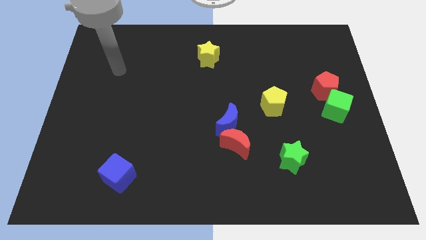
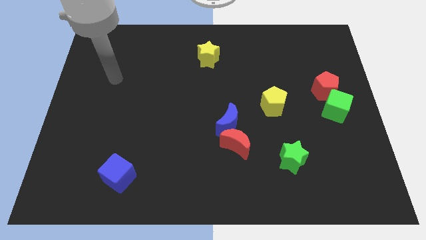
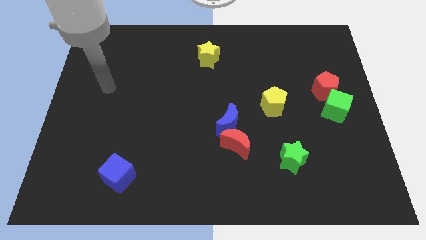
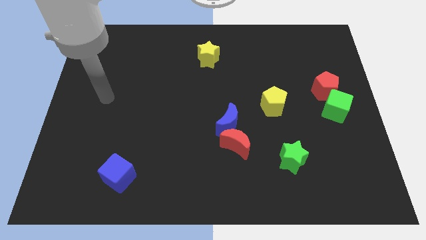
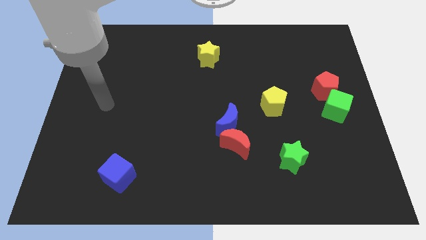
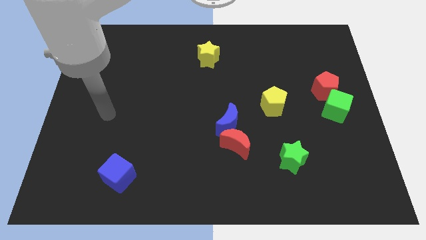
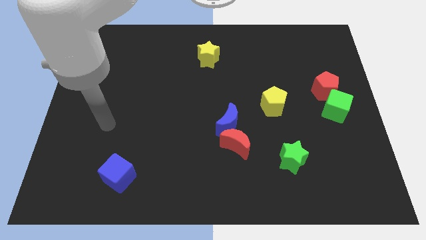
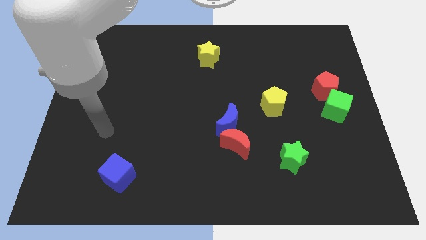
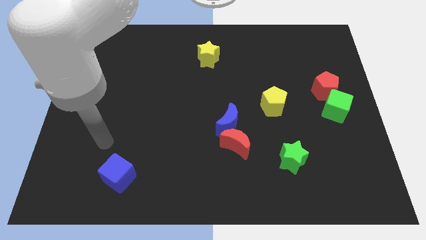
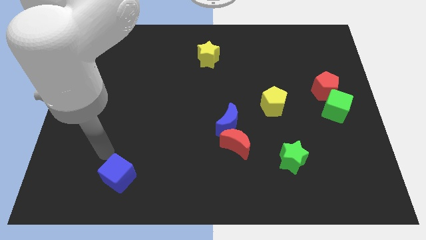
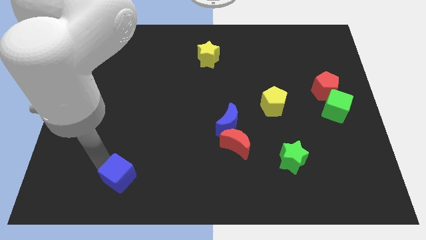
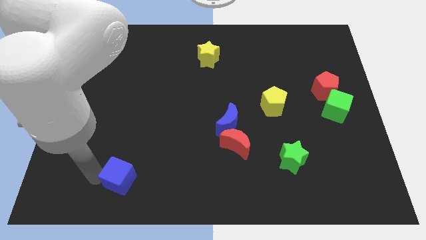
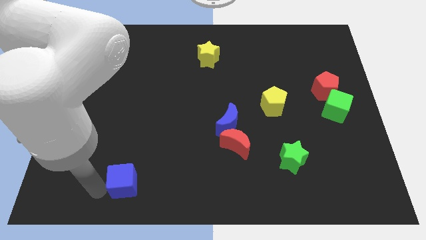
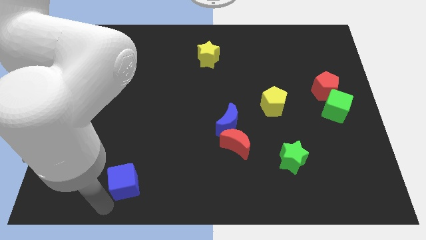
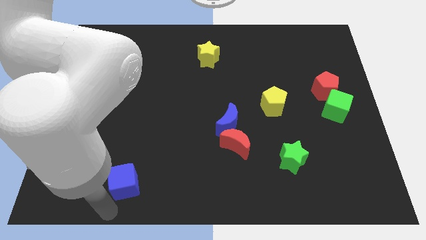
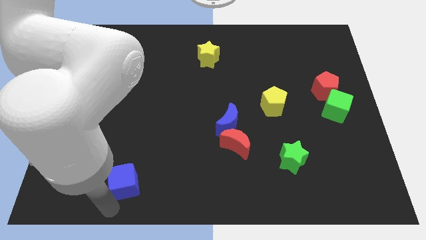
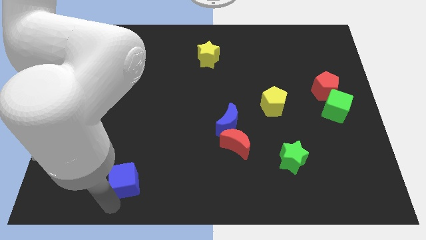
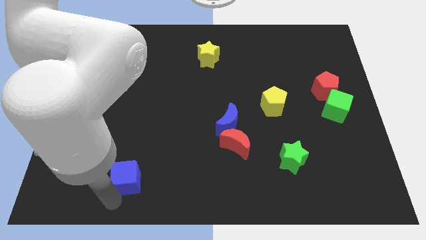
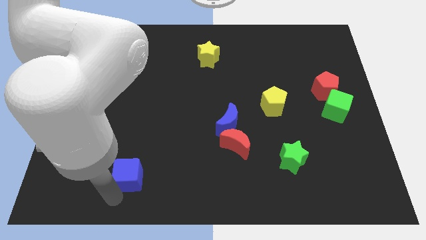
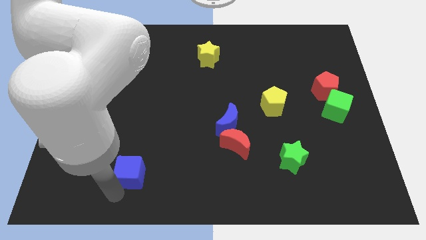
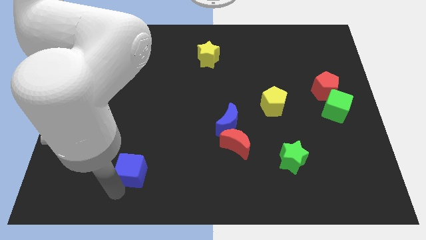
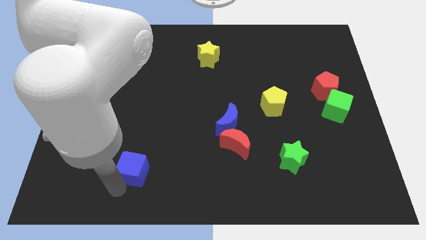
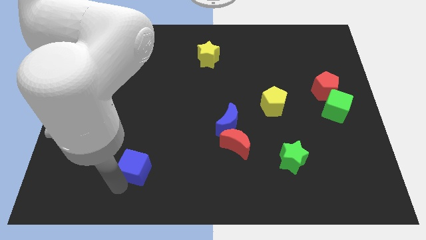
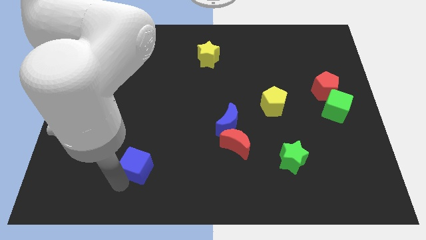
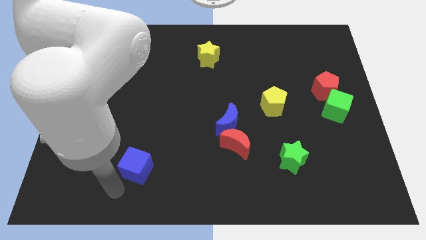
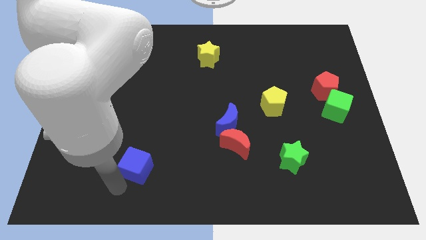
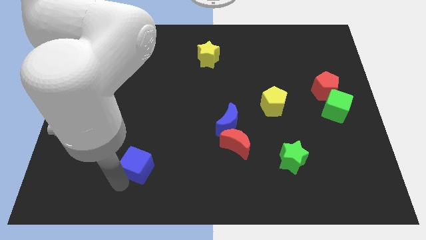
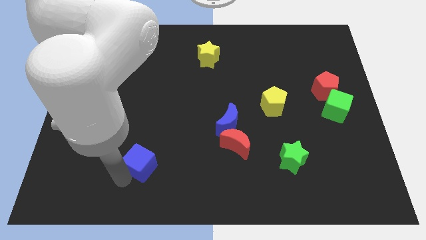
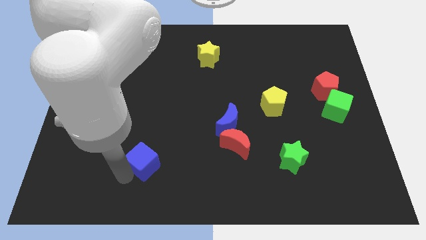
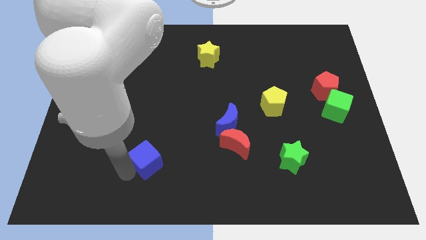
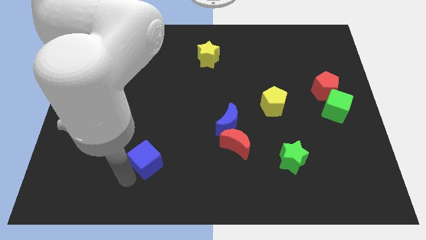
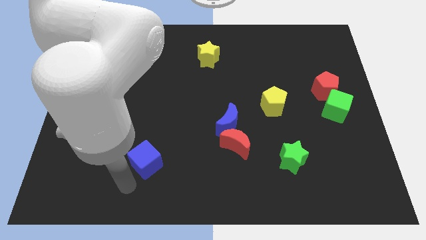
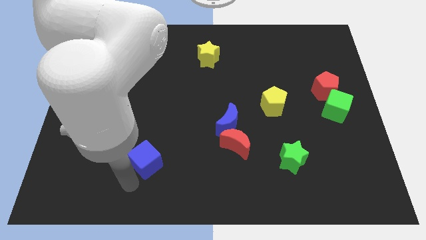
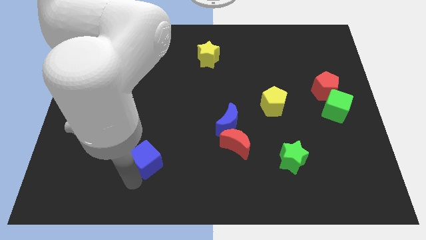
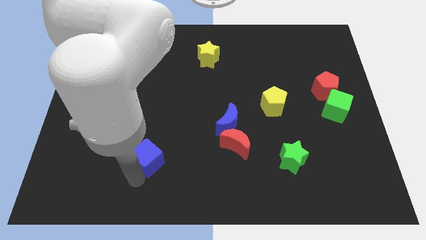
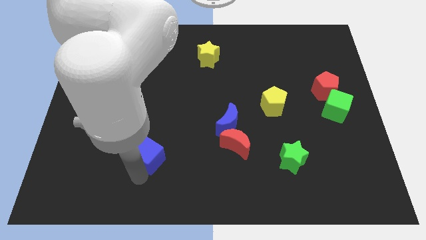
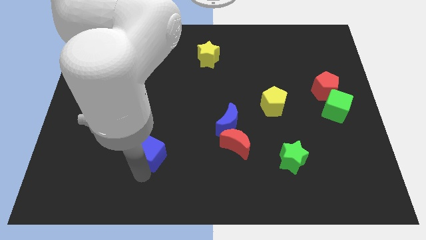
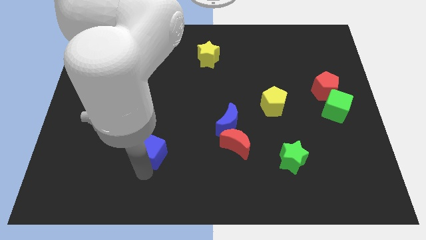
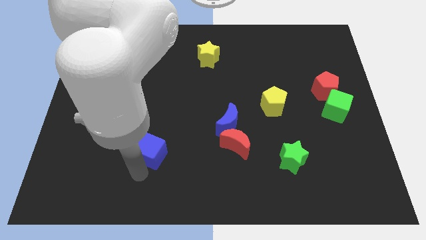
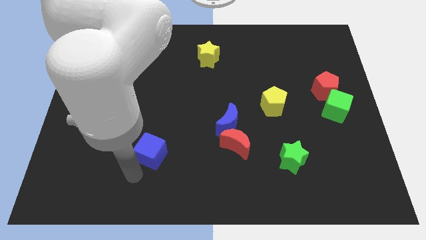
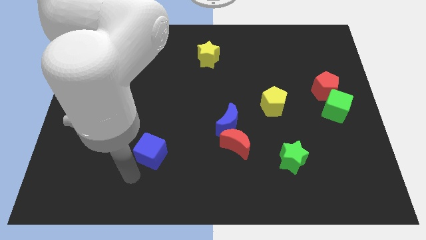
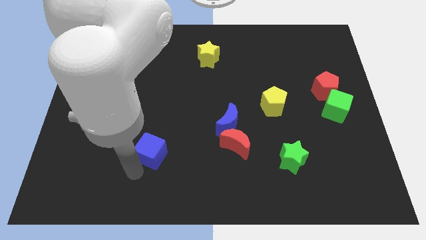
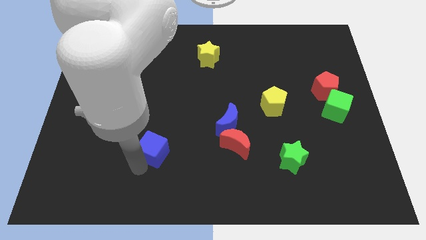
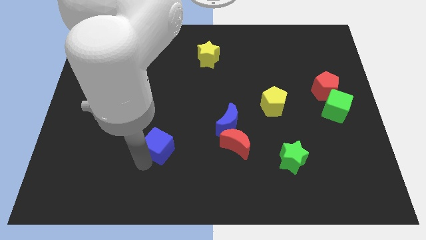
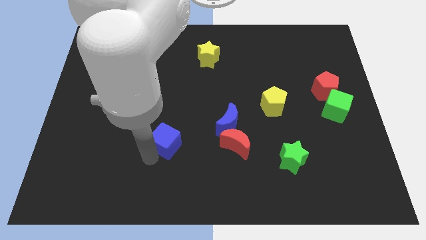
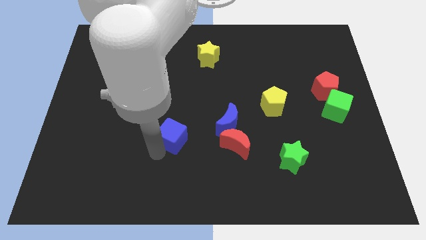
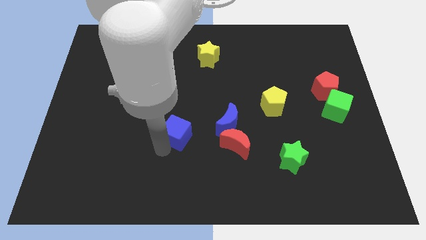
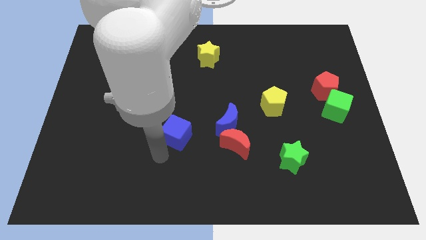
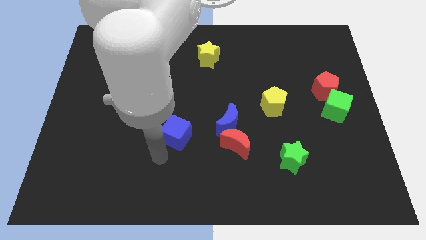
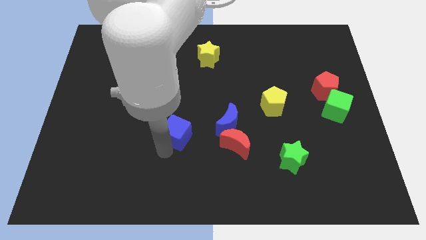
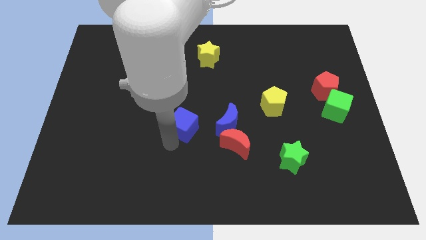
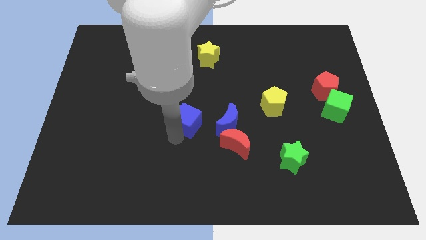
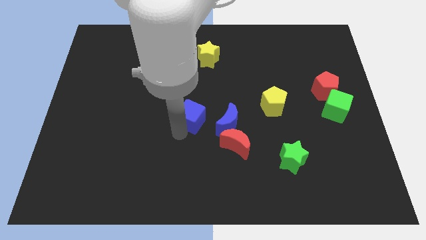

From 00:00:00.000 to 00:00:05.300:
slide the blue cube up and then right

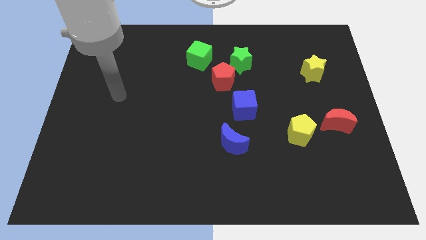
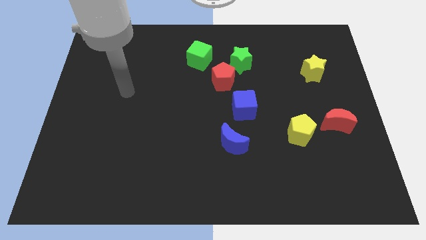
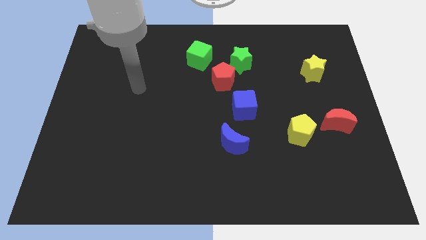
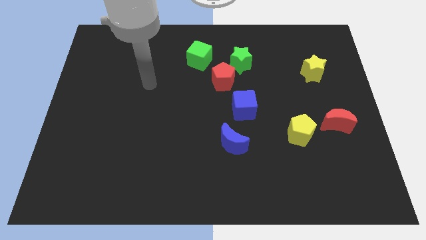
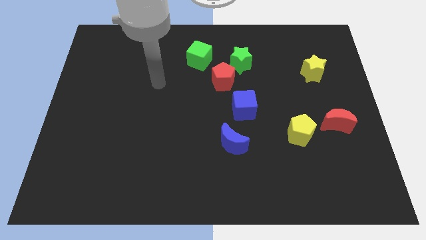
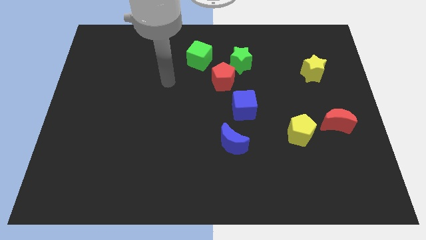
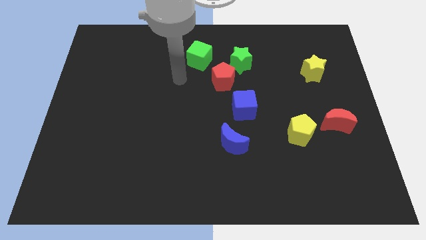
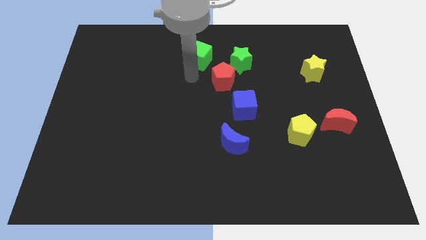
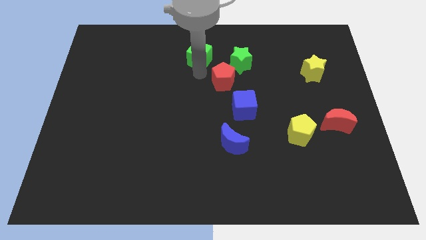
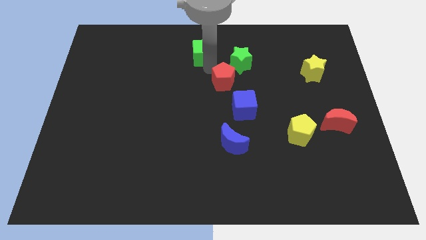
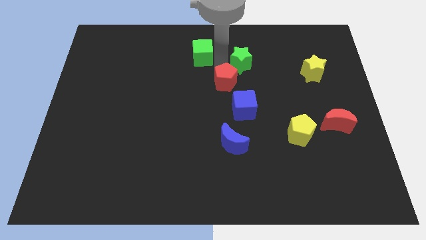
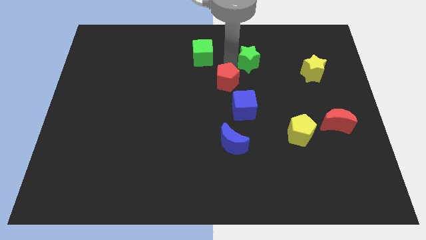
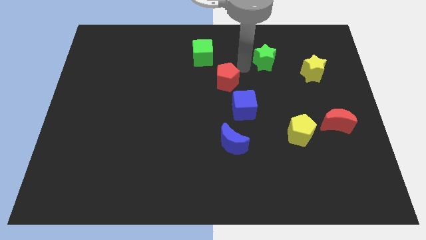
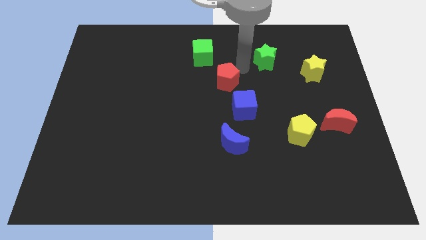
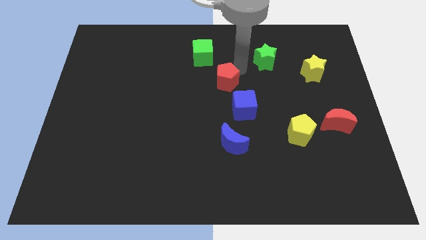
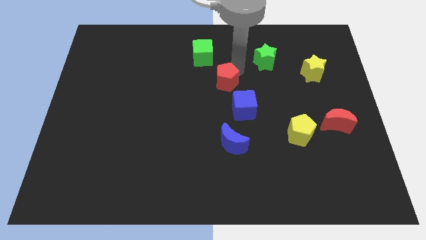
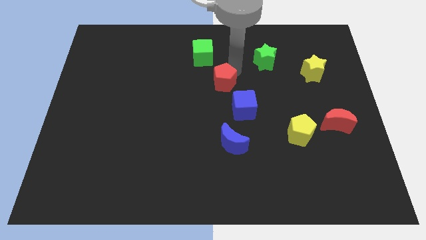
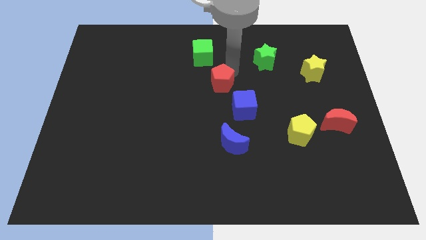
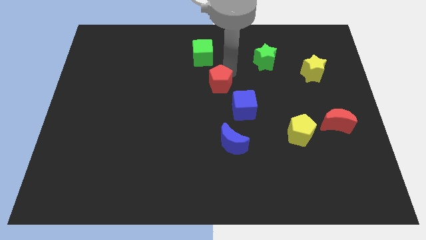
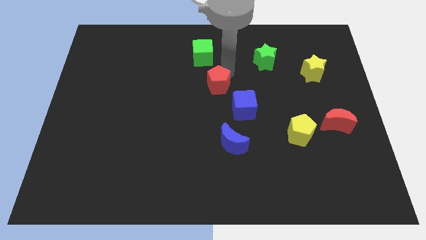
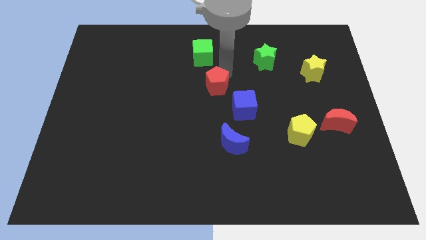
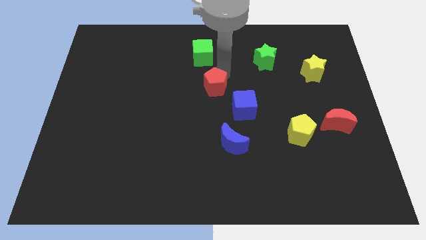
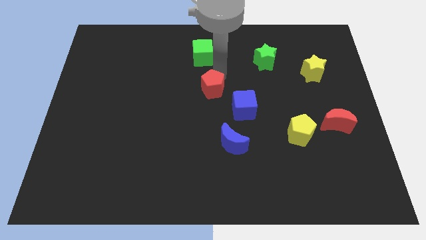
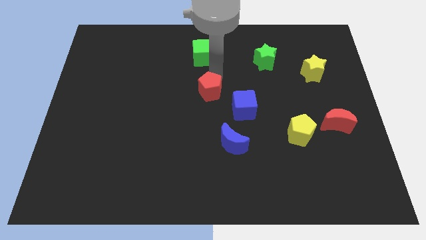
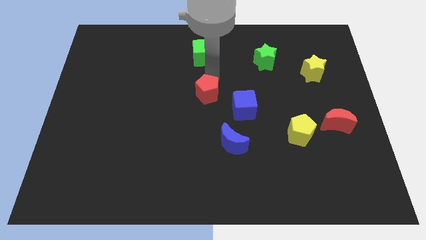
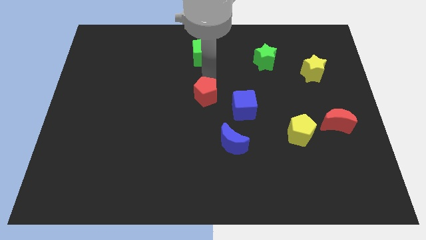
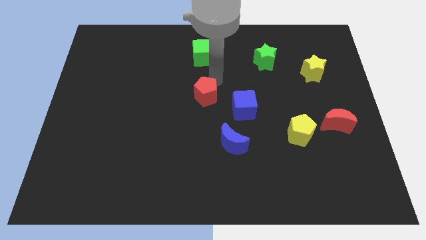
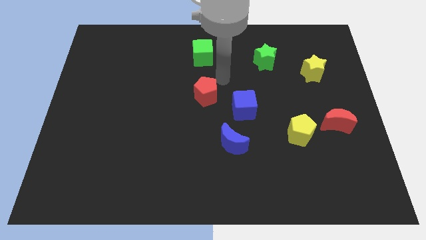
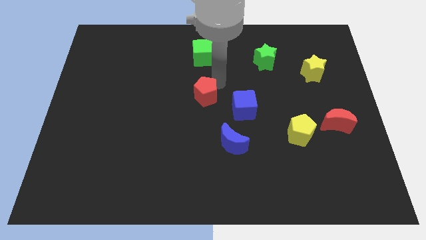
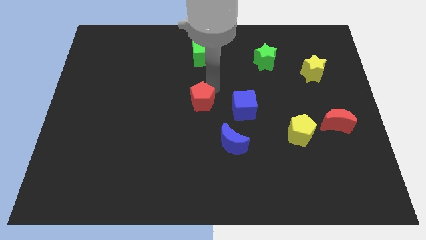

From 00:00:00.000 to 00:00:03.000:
slide the red pentagon down and to the left a little

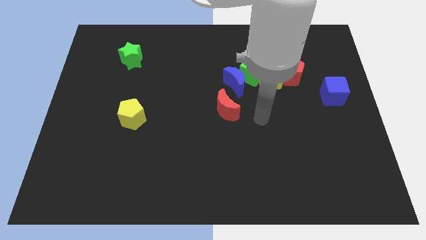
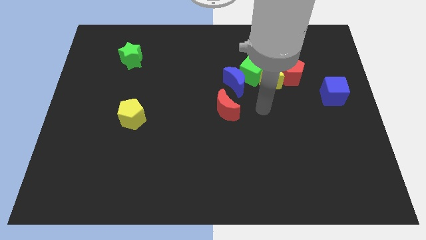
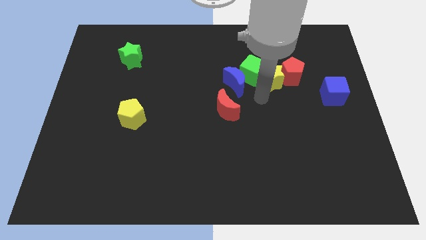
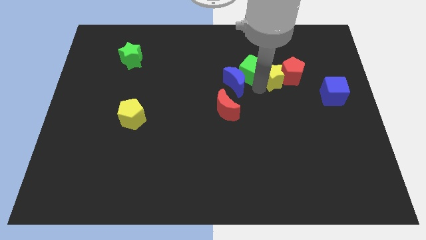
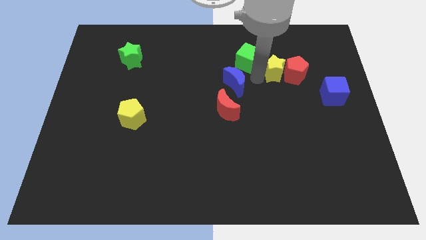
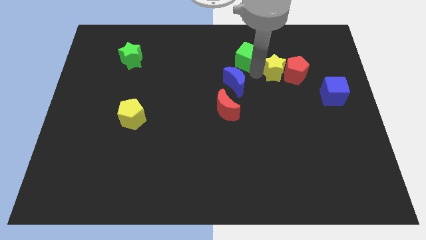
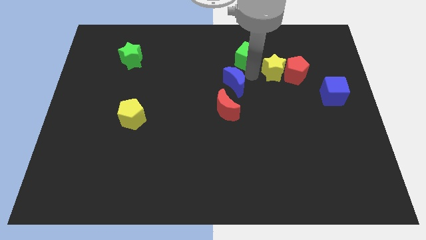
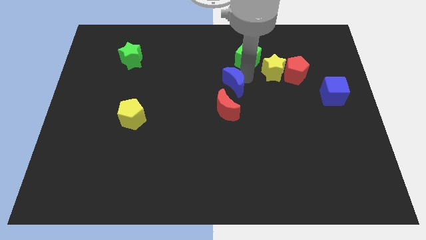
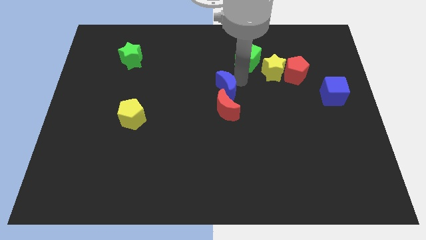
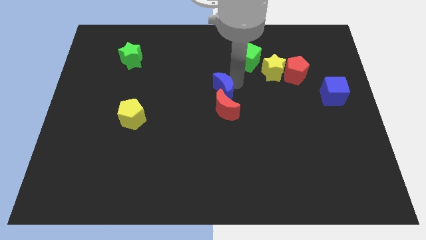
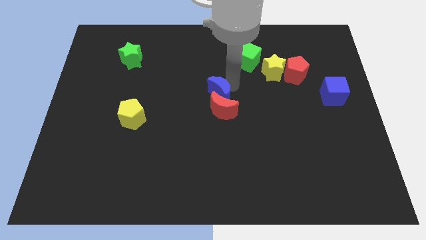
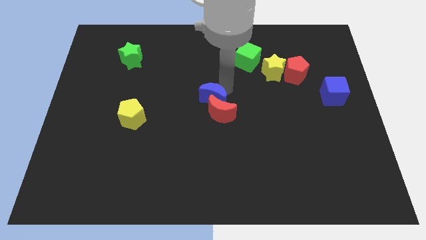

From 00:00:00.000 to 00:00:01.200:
slightly move the blue moon down and to the left
